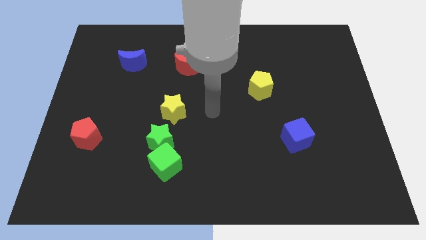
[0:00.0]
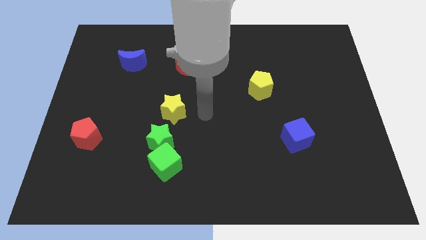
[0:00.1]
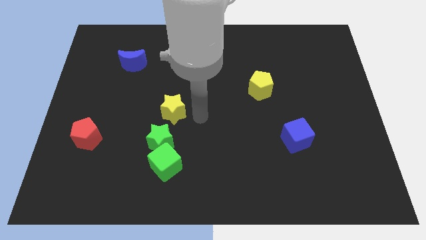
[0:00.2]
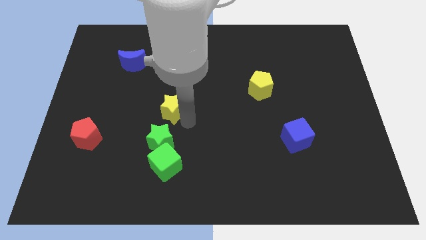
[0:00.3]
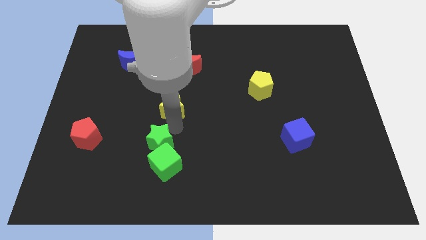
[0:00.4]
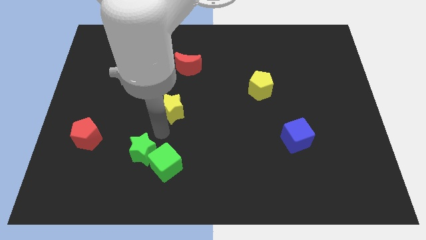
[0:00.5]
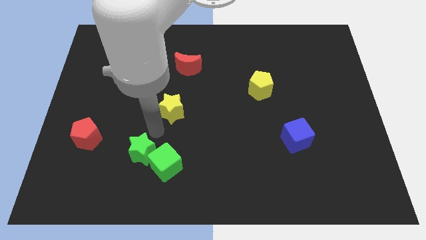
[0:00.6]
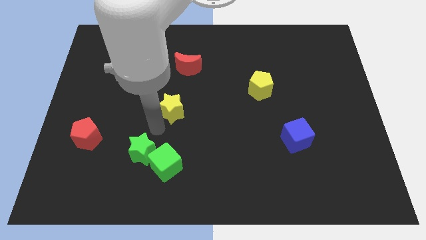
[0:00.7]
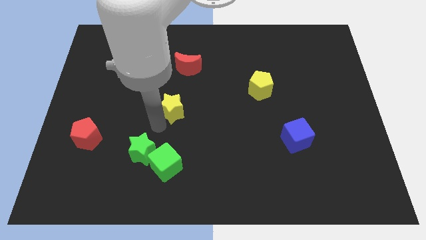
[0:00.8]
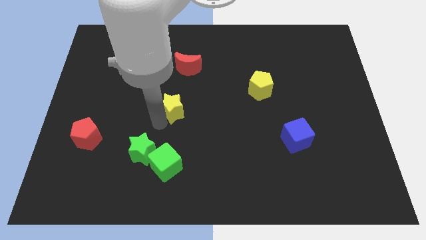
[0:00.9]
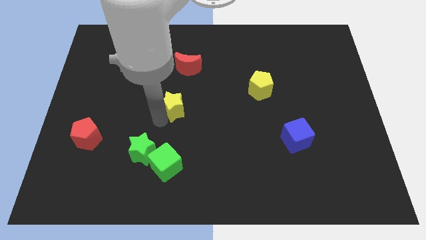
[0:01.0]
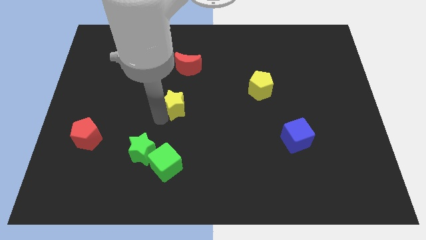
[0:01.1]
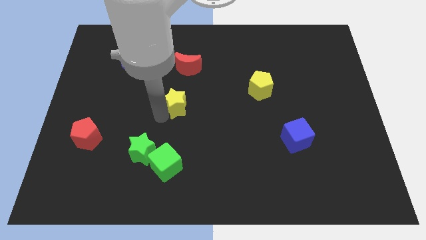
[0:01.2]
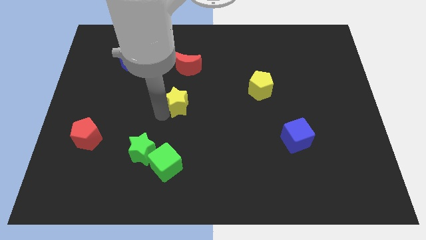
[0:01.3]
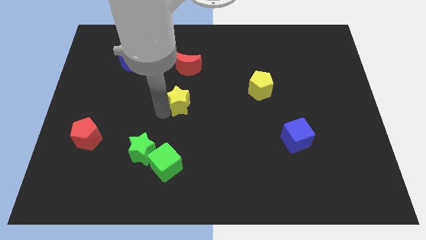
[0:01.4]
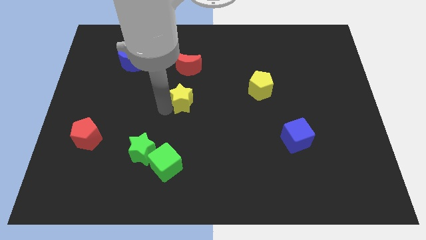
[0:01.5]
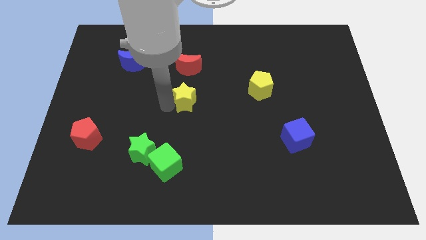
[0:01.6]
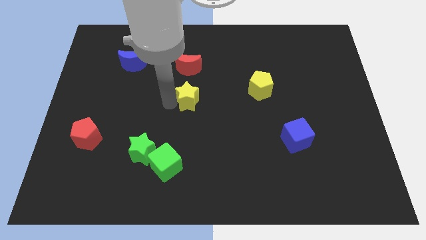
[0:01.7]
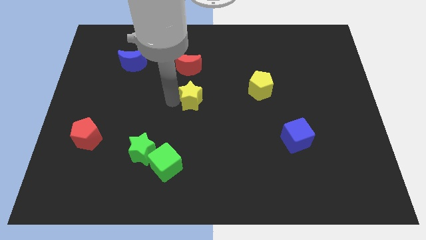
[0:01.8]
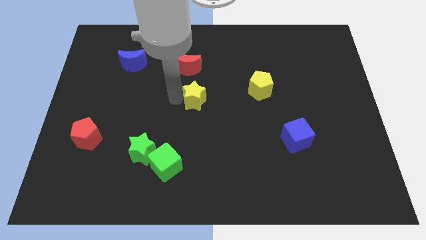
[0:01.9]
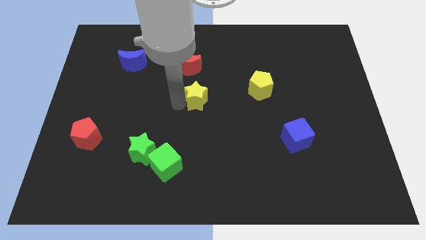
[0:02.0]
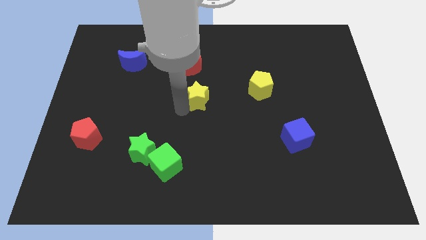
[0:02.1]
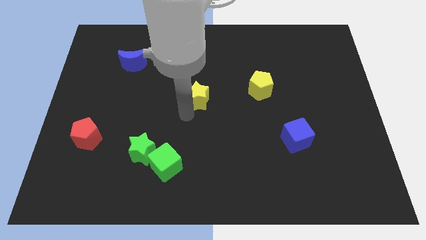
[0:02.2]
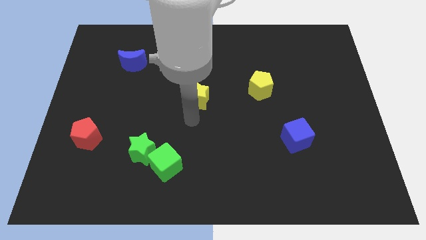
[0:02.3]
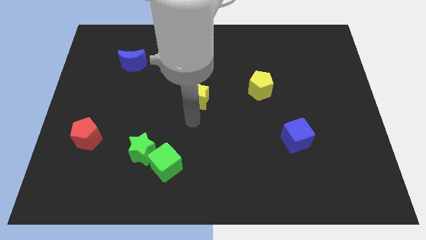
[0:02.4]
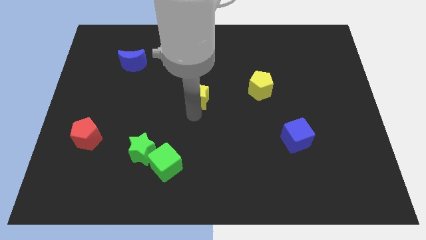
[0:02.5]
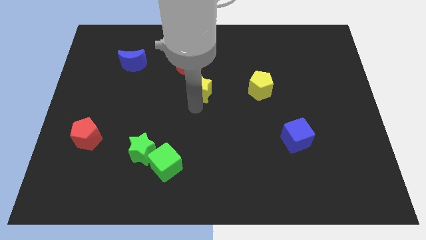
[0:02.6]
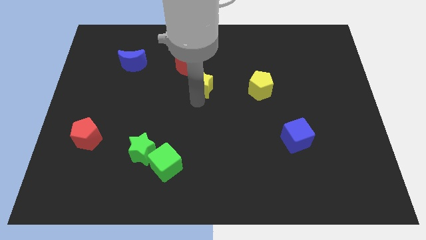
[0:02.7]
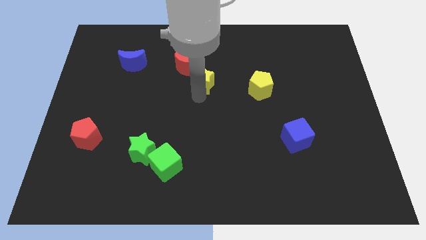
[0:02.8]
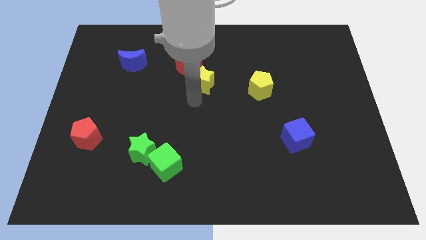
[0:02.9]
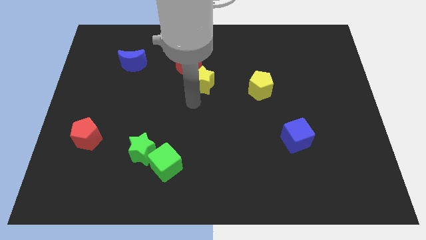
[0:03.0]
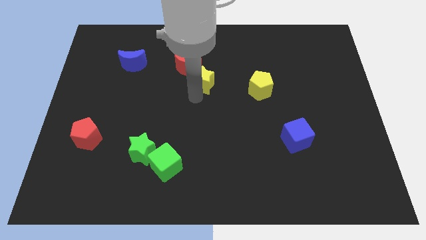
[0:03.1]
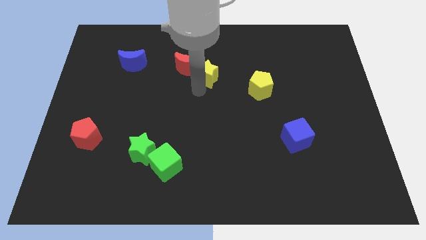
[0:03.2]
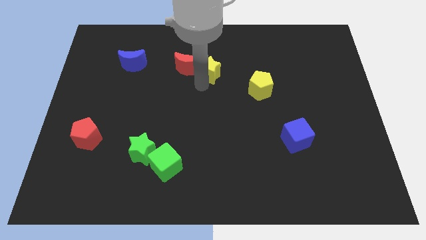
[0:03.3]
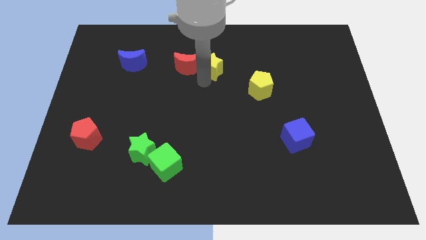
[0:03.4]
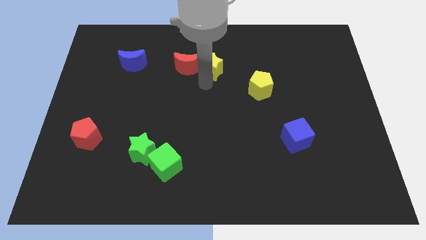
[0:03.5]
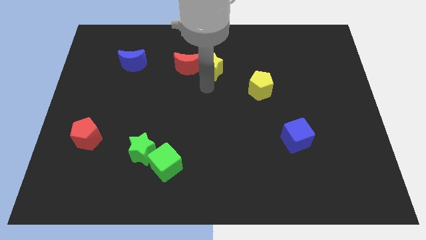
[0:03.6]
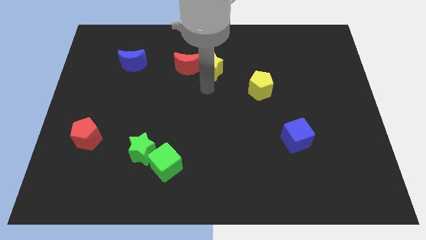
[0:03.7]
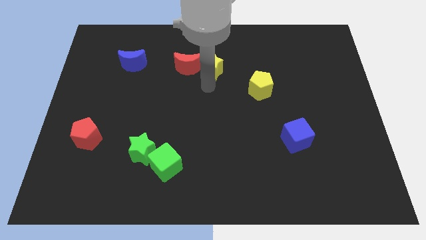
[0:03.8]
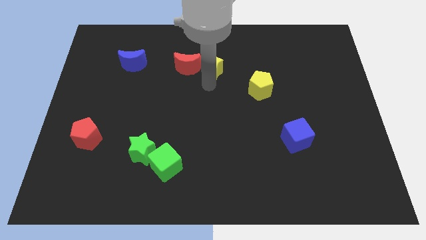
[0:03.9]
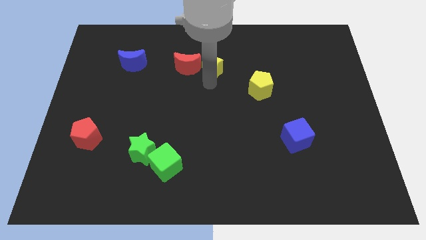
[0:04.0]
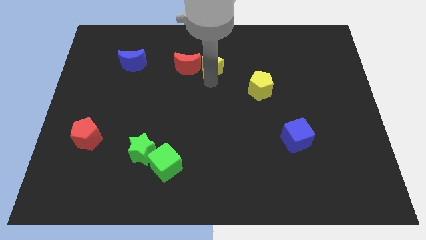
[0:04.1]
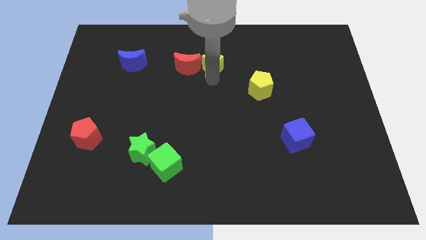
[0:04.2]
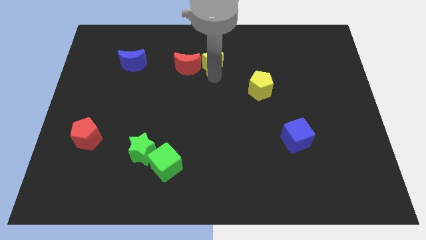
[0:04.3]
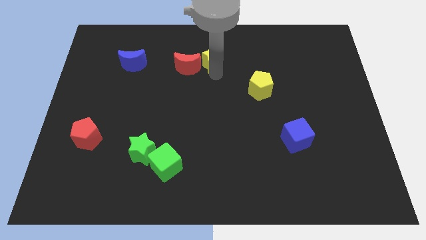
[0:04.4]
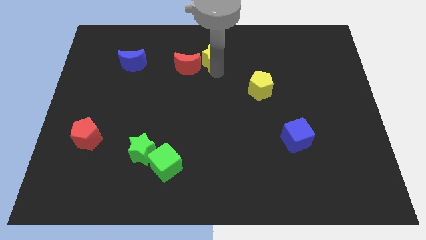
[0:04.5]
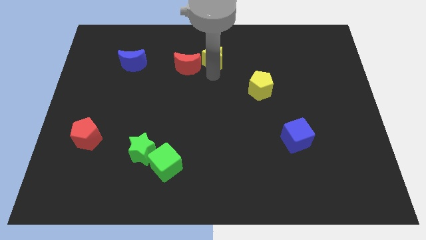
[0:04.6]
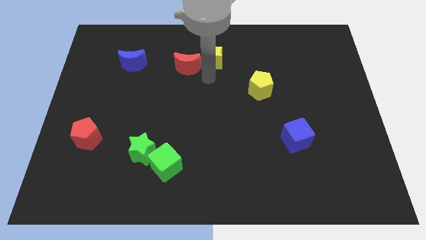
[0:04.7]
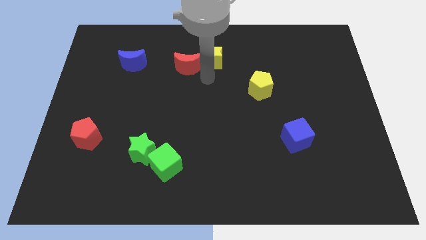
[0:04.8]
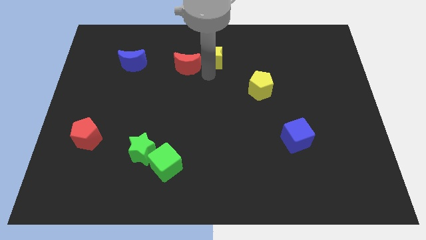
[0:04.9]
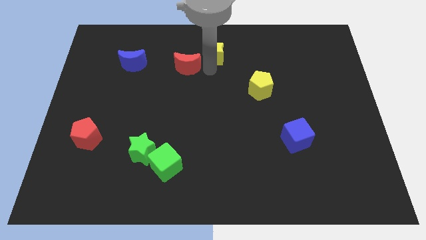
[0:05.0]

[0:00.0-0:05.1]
move the yellow star to the towards your base
